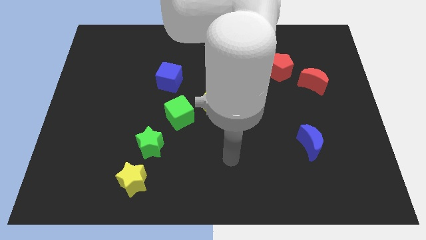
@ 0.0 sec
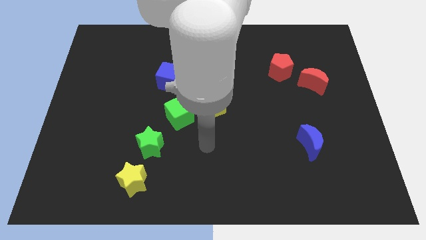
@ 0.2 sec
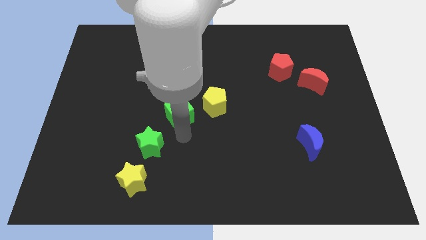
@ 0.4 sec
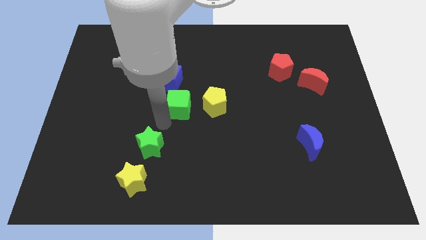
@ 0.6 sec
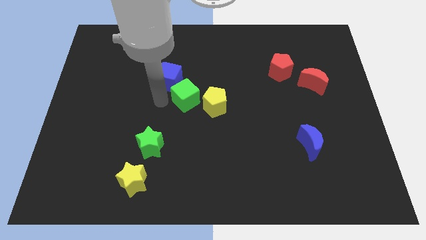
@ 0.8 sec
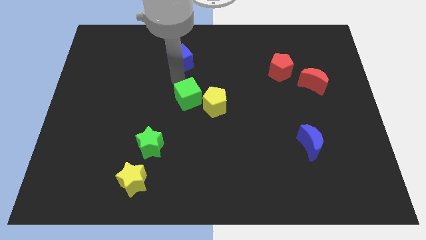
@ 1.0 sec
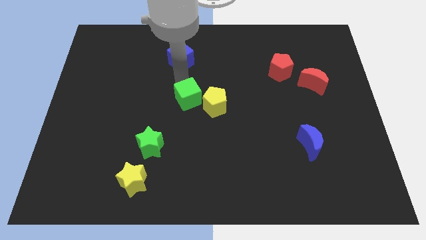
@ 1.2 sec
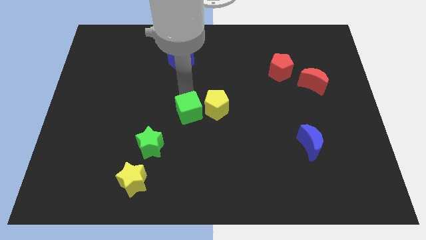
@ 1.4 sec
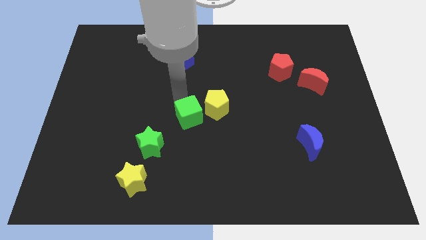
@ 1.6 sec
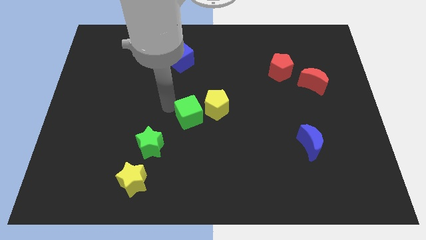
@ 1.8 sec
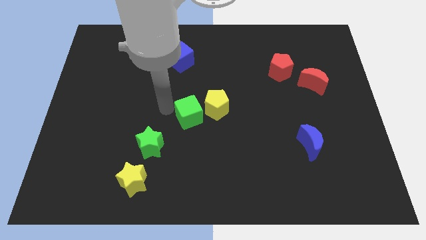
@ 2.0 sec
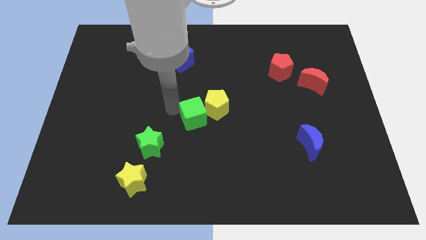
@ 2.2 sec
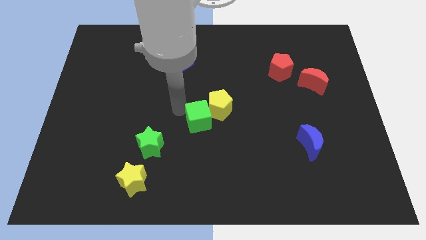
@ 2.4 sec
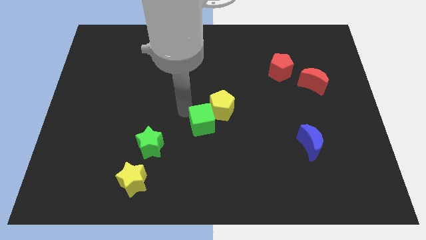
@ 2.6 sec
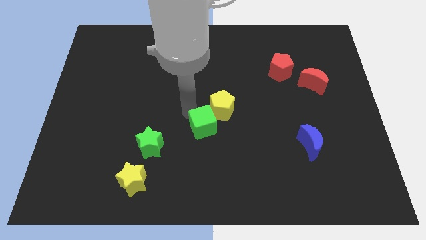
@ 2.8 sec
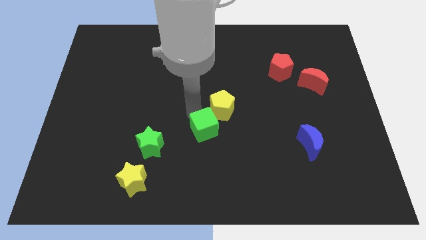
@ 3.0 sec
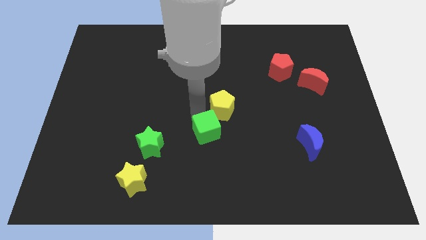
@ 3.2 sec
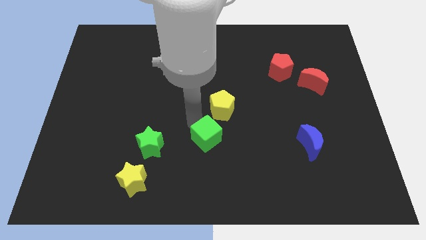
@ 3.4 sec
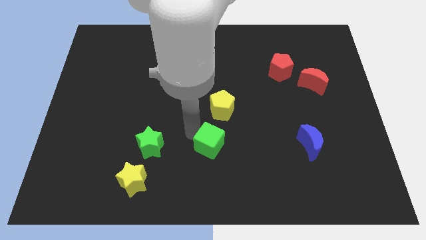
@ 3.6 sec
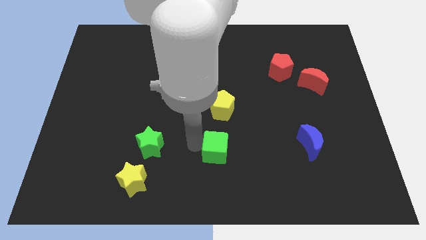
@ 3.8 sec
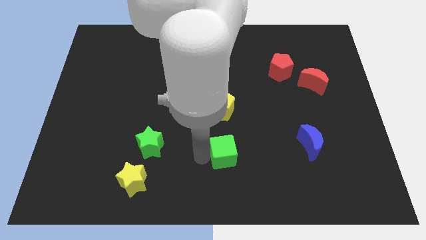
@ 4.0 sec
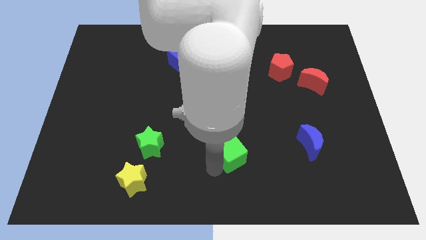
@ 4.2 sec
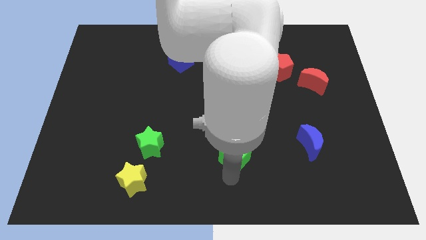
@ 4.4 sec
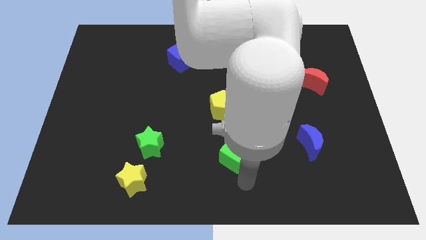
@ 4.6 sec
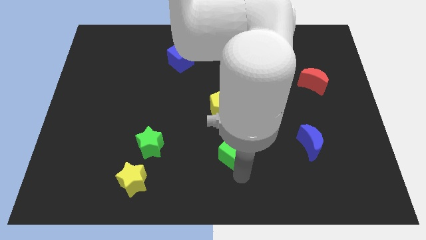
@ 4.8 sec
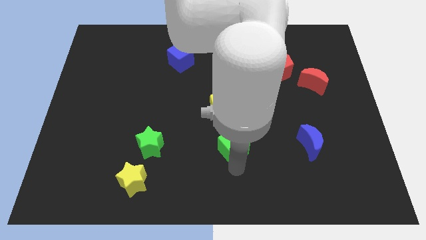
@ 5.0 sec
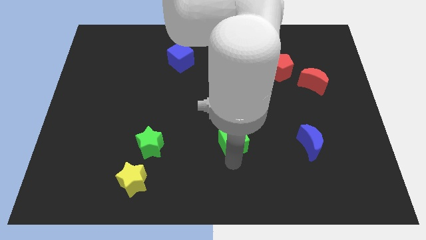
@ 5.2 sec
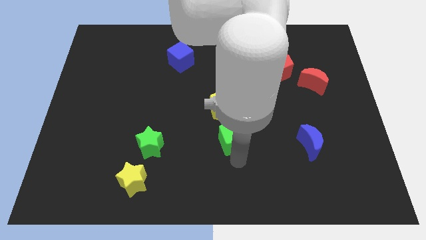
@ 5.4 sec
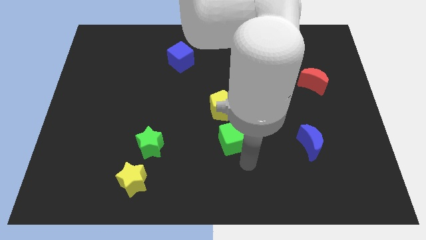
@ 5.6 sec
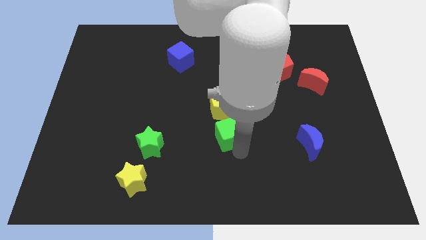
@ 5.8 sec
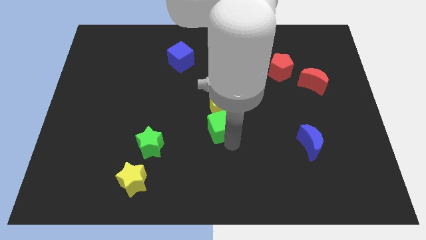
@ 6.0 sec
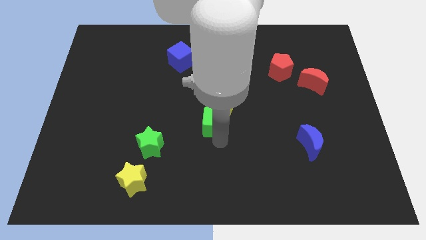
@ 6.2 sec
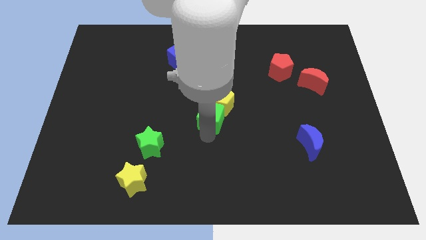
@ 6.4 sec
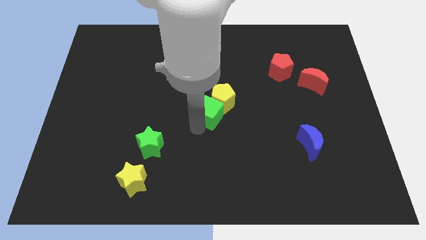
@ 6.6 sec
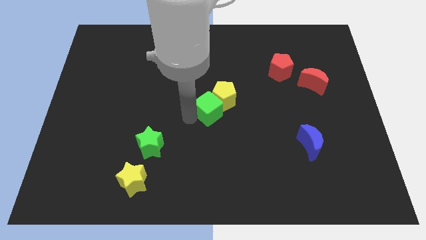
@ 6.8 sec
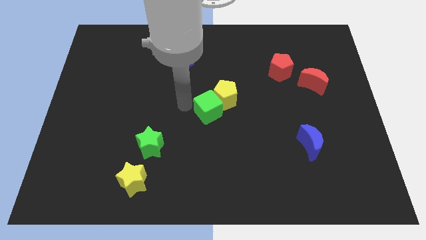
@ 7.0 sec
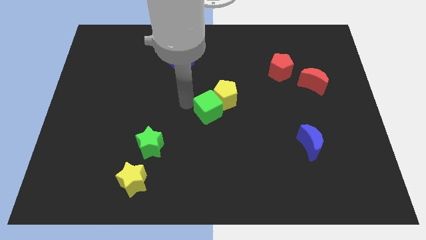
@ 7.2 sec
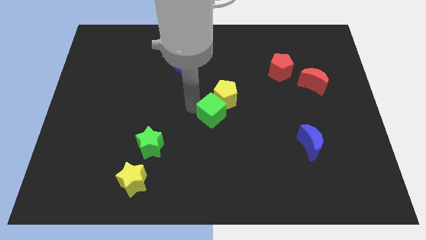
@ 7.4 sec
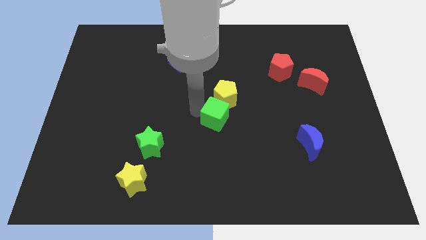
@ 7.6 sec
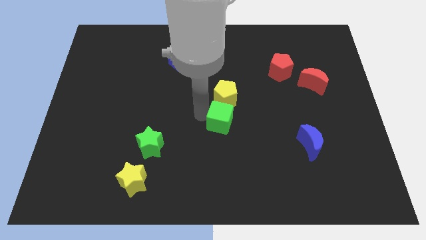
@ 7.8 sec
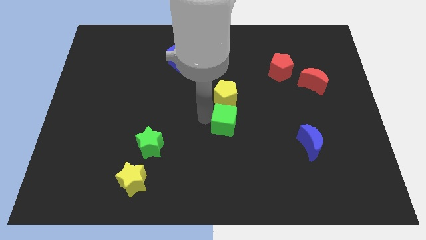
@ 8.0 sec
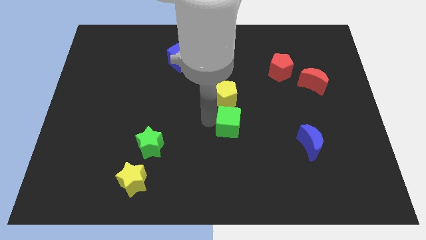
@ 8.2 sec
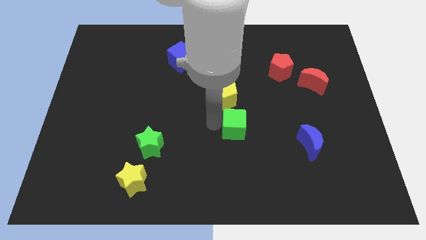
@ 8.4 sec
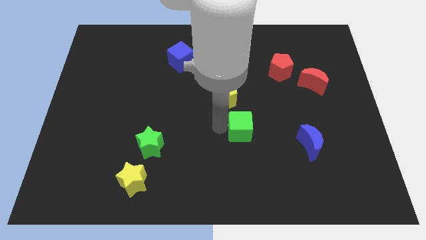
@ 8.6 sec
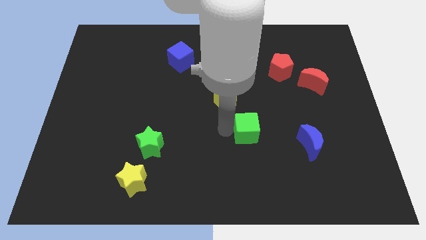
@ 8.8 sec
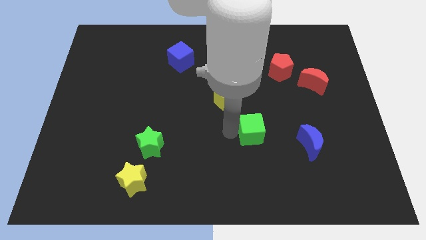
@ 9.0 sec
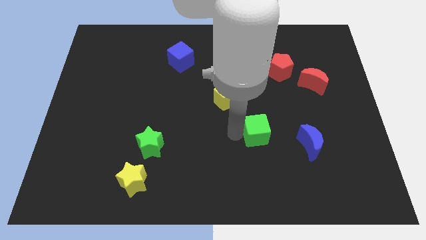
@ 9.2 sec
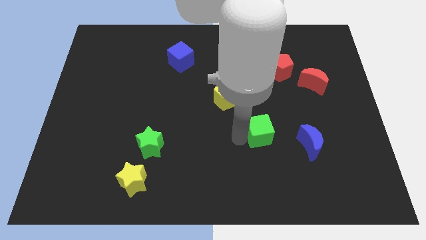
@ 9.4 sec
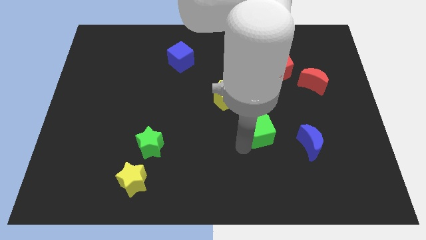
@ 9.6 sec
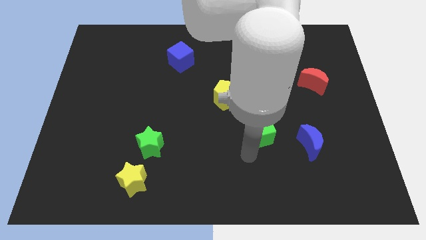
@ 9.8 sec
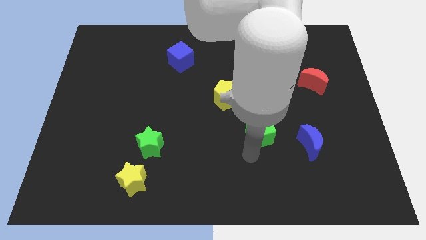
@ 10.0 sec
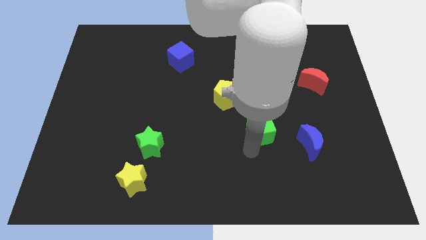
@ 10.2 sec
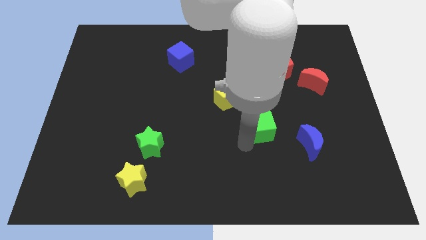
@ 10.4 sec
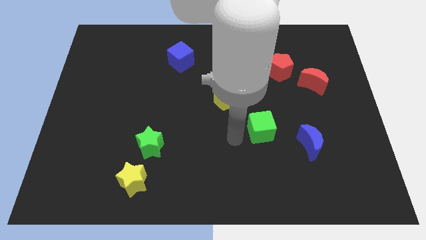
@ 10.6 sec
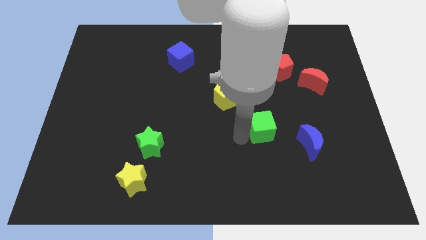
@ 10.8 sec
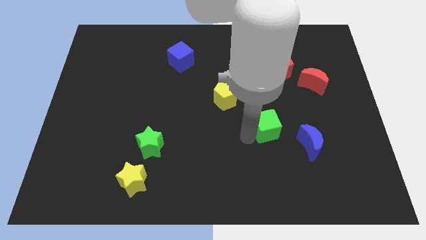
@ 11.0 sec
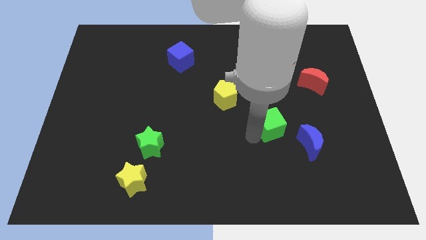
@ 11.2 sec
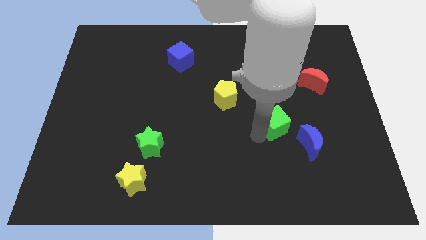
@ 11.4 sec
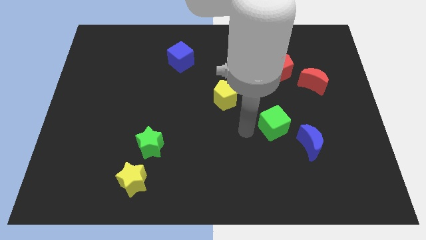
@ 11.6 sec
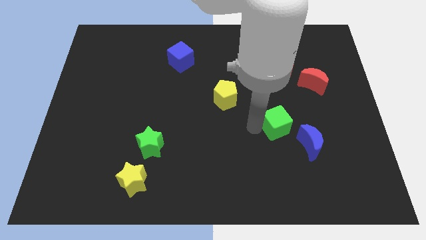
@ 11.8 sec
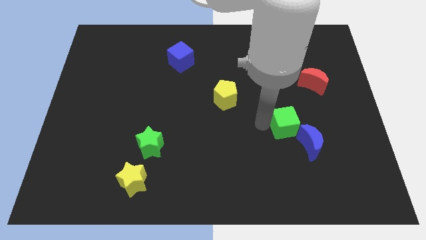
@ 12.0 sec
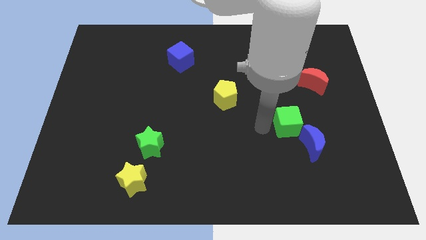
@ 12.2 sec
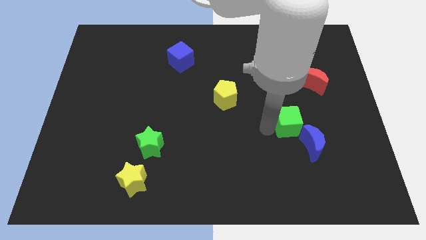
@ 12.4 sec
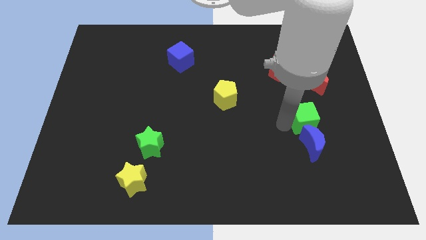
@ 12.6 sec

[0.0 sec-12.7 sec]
slide the green cube to the bottom side of the red moon

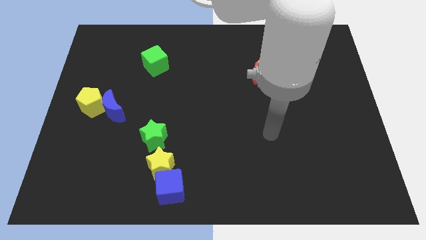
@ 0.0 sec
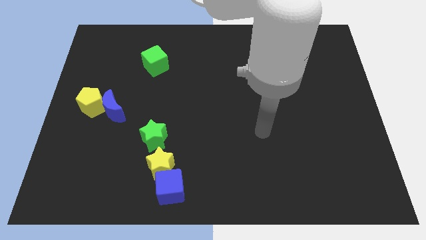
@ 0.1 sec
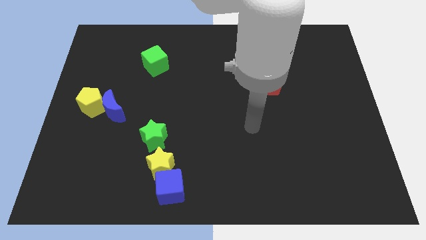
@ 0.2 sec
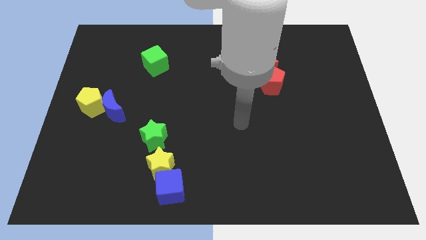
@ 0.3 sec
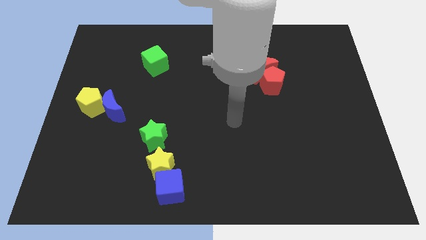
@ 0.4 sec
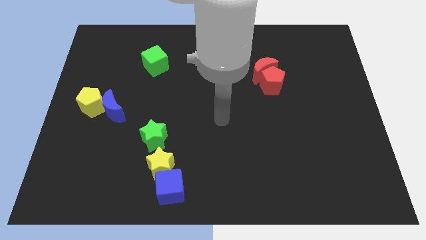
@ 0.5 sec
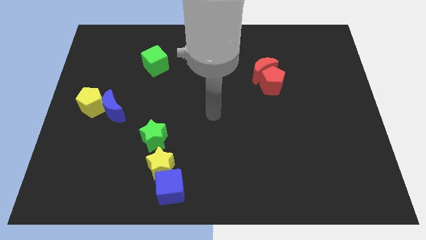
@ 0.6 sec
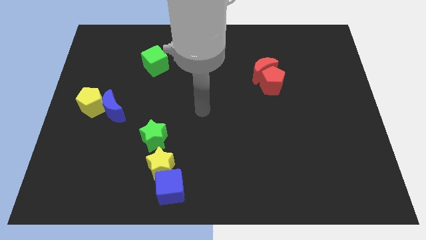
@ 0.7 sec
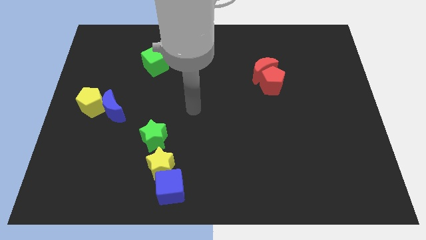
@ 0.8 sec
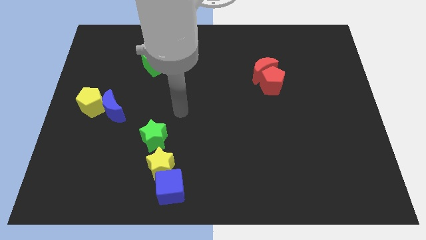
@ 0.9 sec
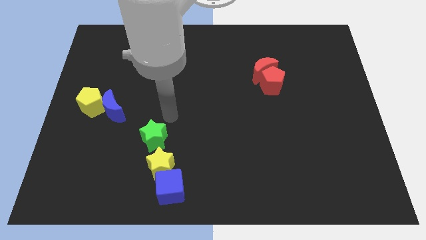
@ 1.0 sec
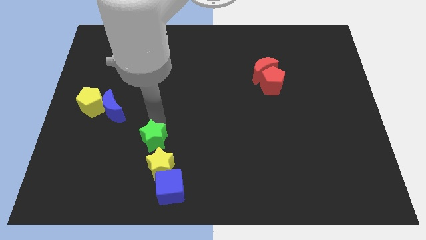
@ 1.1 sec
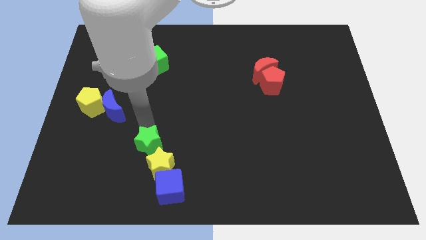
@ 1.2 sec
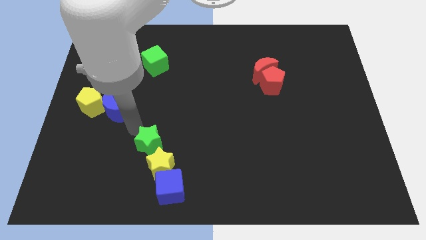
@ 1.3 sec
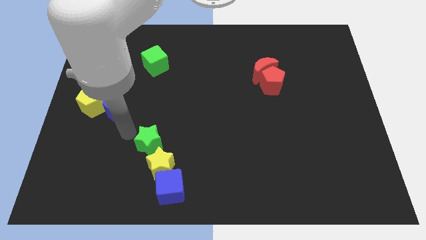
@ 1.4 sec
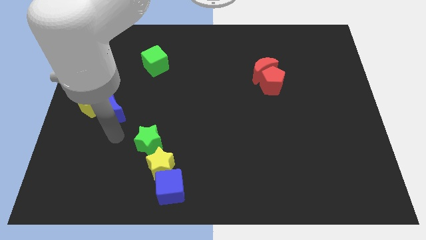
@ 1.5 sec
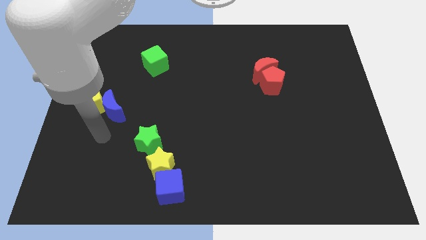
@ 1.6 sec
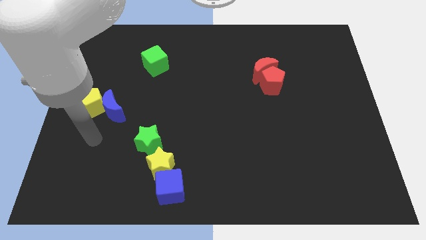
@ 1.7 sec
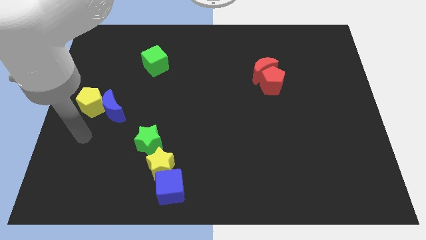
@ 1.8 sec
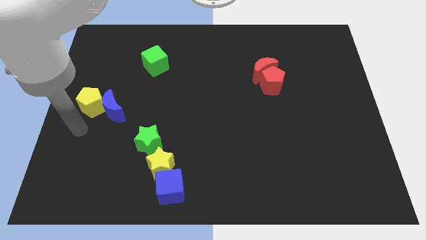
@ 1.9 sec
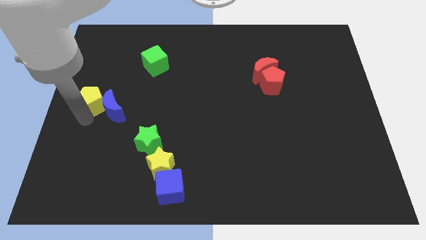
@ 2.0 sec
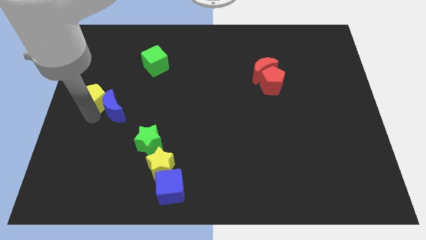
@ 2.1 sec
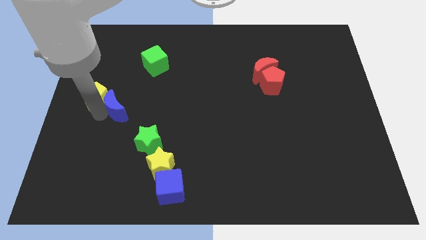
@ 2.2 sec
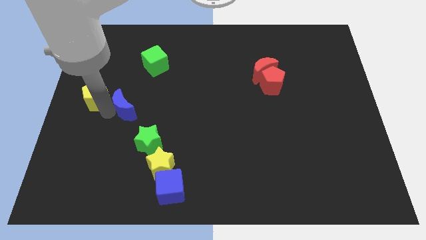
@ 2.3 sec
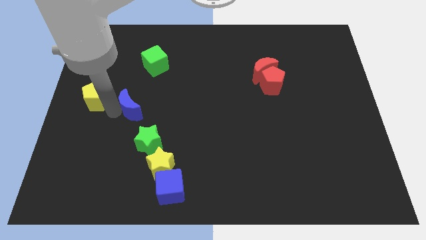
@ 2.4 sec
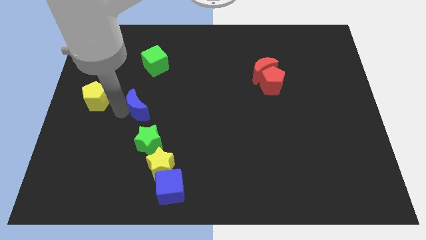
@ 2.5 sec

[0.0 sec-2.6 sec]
slide the blue moon to the bottom of the green cube
